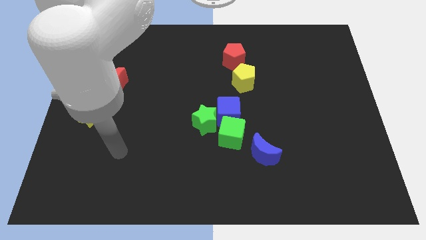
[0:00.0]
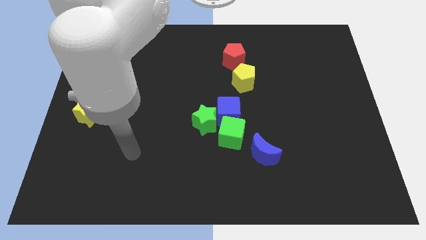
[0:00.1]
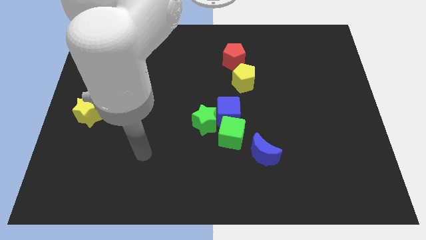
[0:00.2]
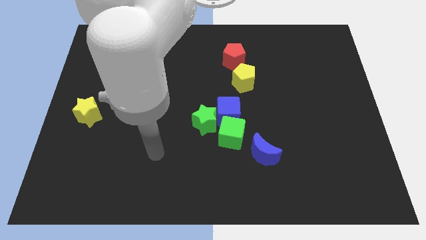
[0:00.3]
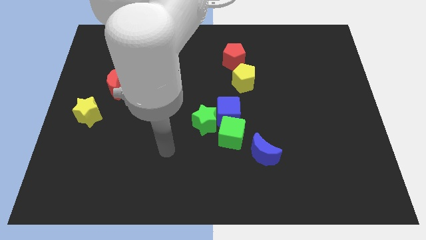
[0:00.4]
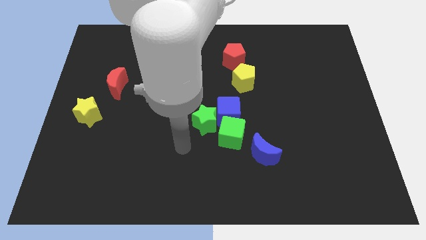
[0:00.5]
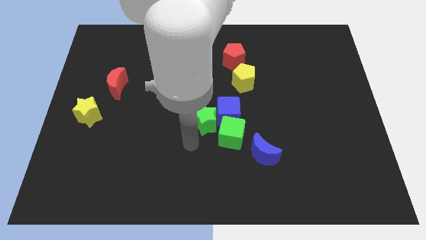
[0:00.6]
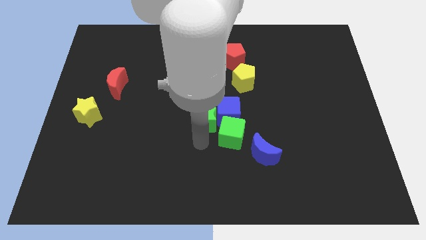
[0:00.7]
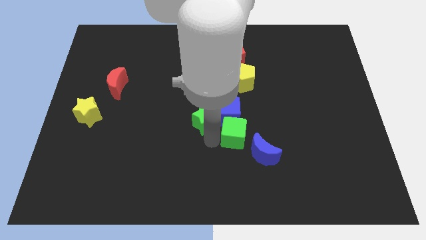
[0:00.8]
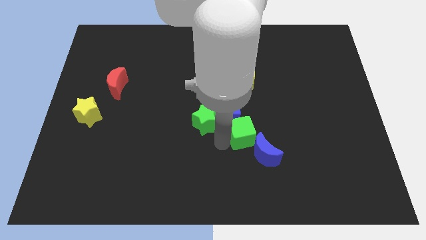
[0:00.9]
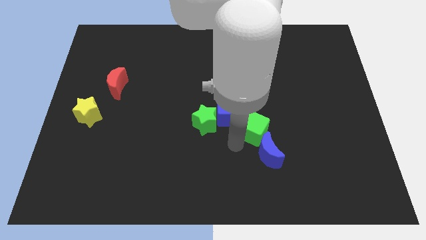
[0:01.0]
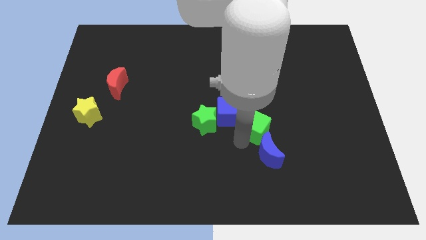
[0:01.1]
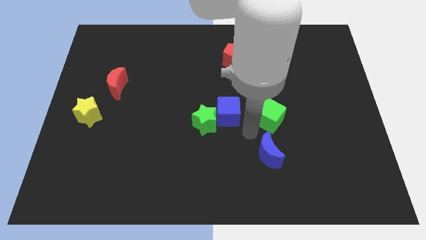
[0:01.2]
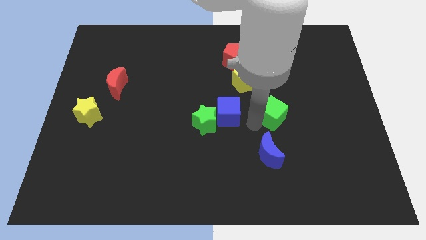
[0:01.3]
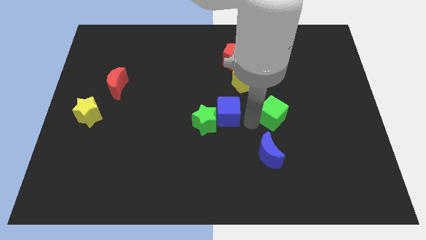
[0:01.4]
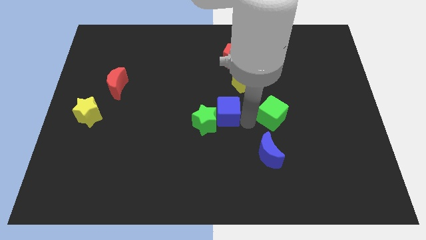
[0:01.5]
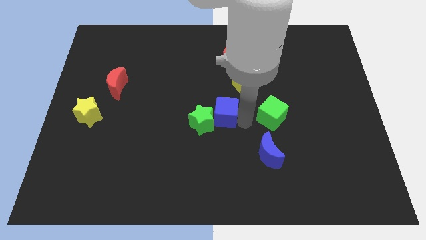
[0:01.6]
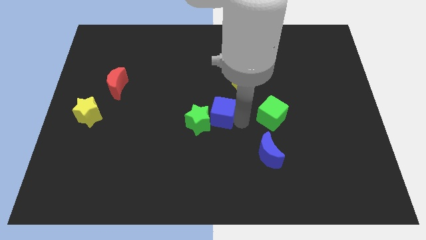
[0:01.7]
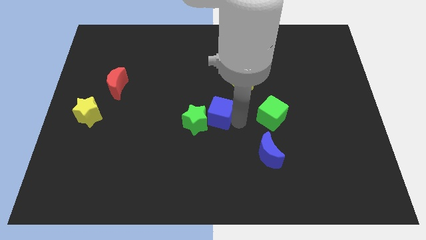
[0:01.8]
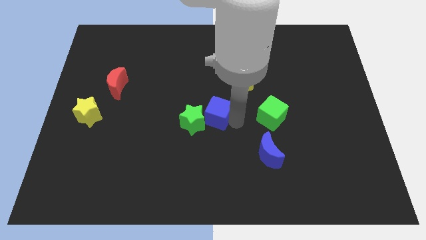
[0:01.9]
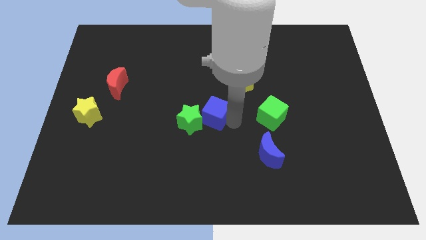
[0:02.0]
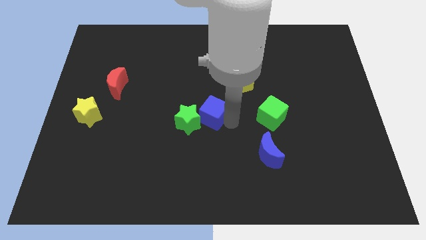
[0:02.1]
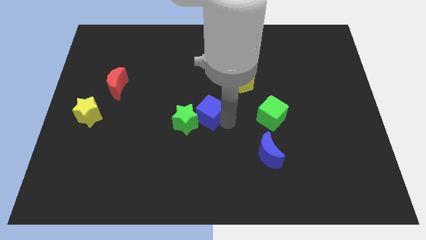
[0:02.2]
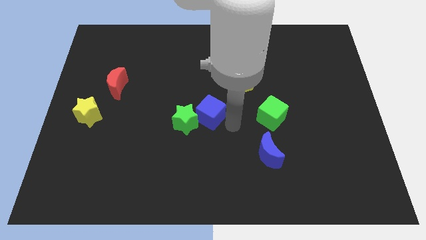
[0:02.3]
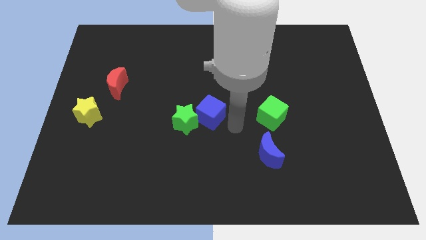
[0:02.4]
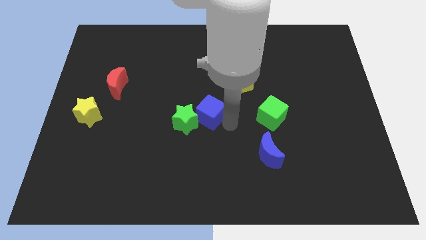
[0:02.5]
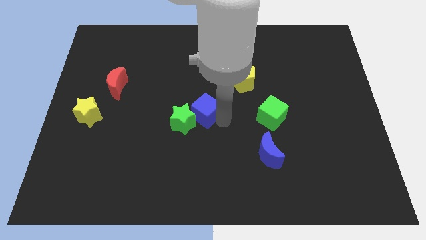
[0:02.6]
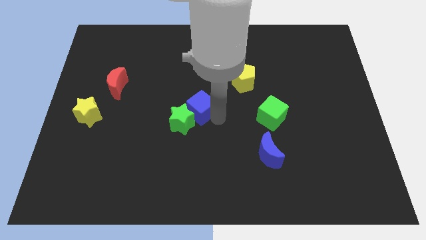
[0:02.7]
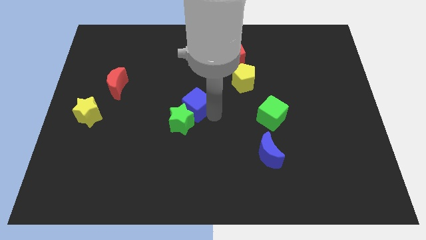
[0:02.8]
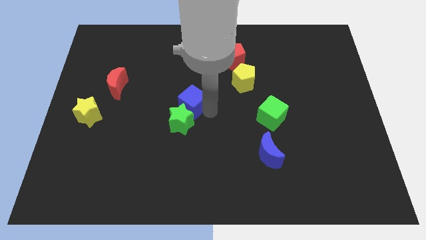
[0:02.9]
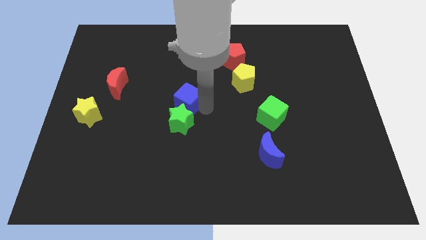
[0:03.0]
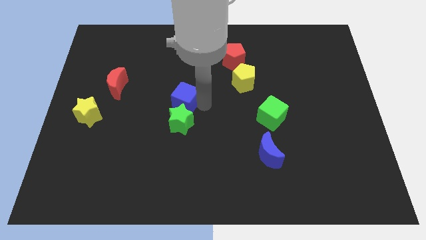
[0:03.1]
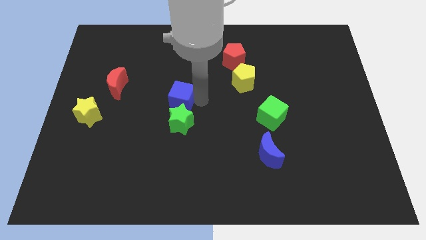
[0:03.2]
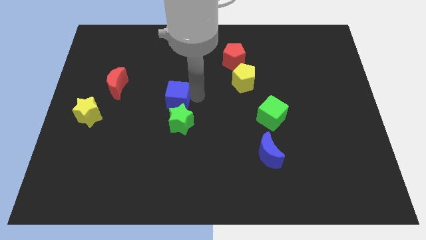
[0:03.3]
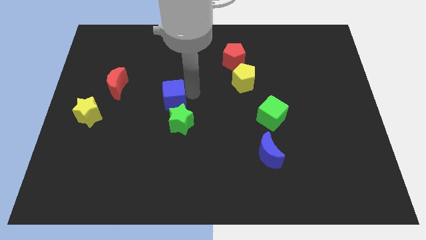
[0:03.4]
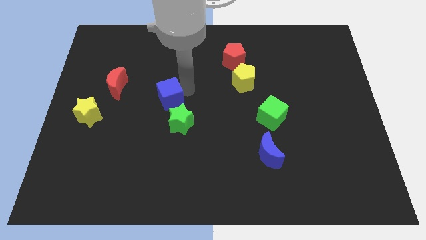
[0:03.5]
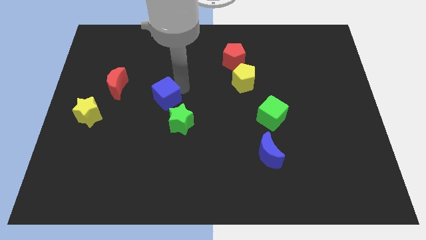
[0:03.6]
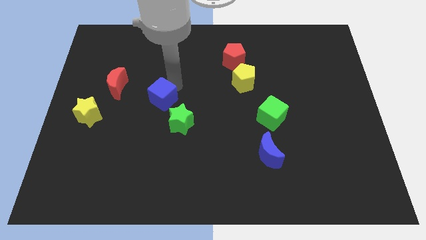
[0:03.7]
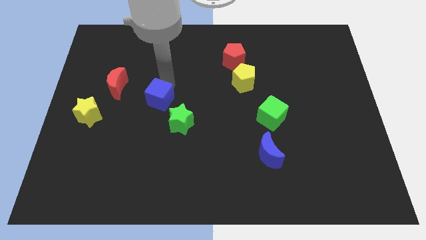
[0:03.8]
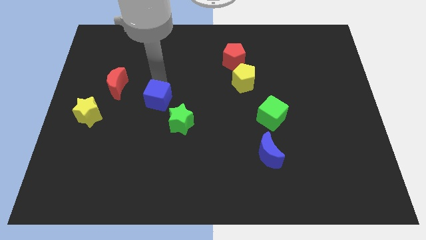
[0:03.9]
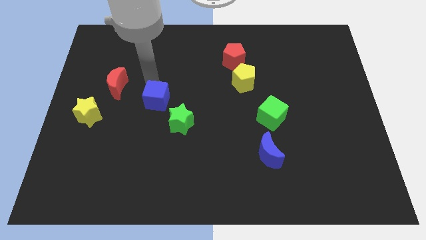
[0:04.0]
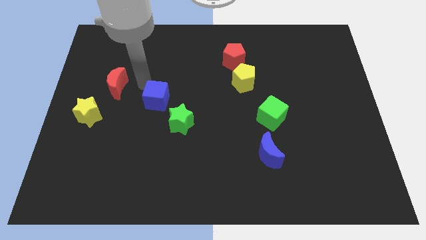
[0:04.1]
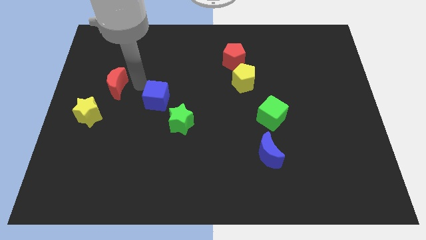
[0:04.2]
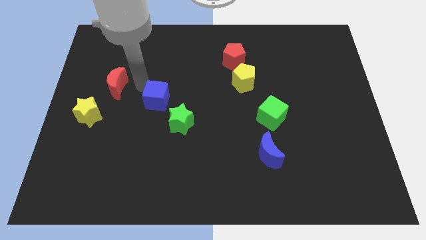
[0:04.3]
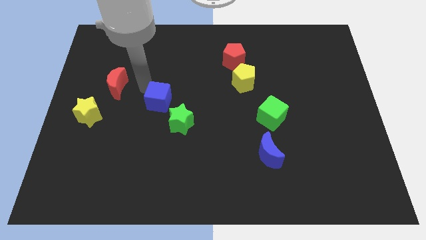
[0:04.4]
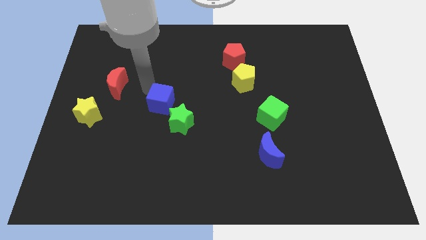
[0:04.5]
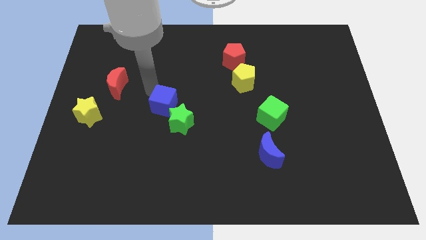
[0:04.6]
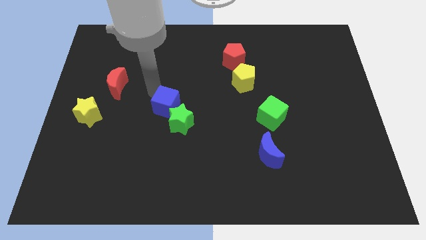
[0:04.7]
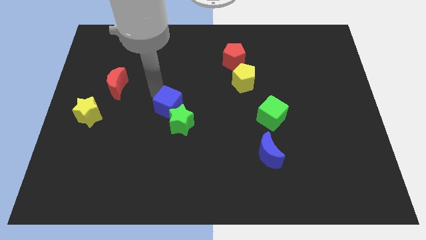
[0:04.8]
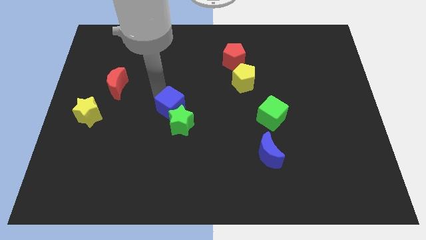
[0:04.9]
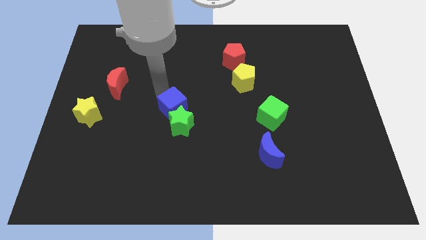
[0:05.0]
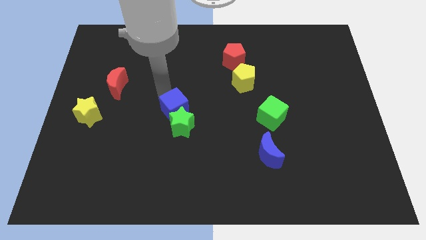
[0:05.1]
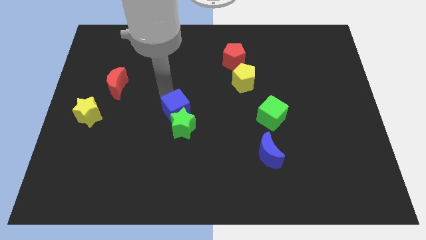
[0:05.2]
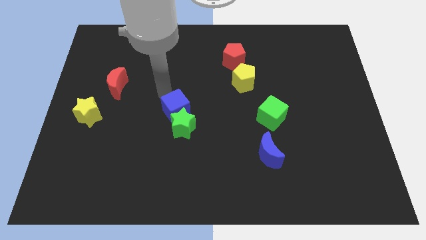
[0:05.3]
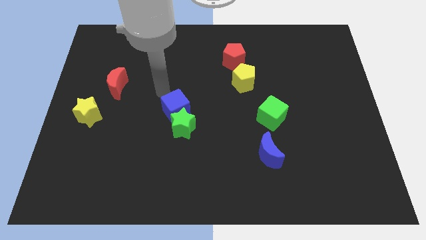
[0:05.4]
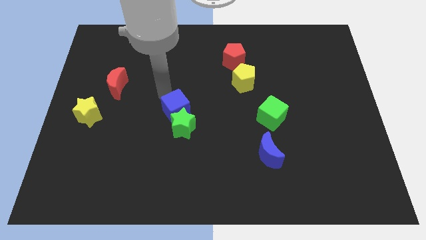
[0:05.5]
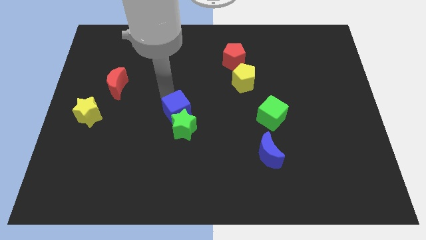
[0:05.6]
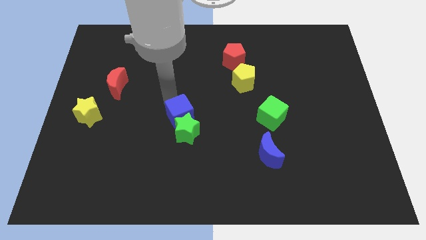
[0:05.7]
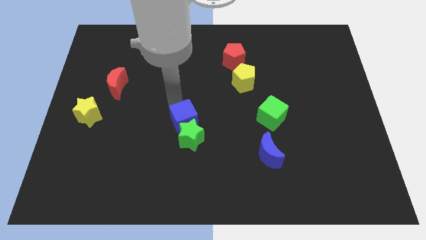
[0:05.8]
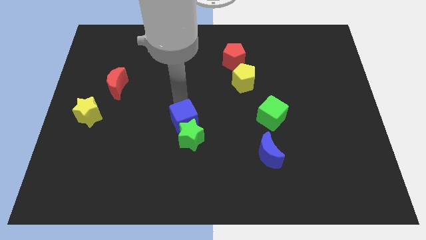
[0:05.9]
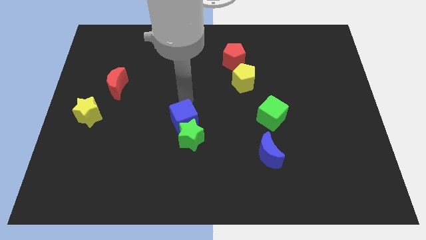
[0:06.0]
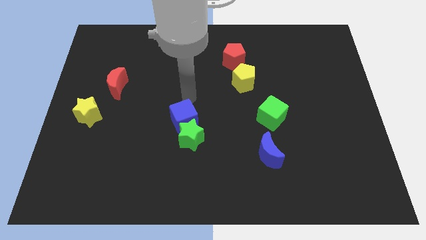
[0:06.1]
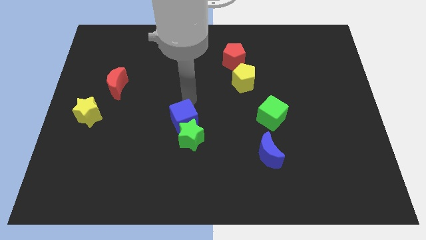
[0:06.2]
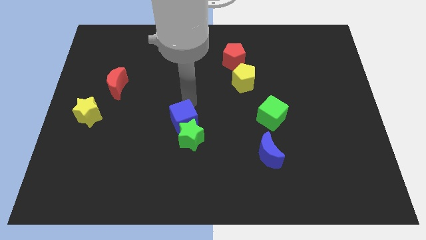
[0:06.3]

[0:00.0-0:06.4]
slide the blue cube downwards and then to the left slightly

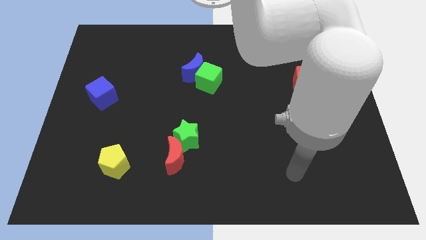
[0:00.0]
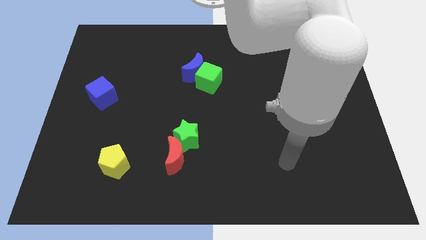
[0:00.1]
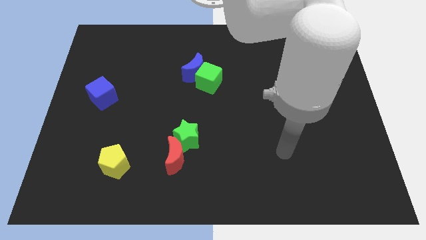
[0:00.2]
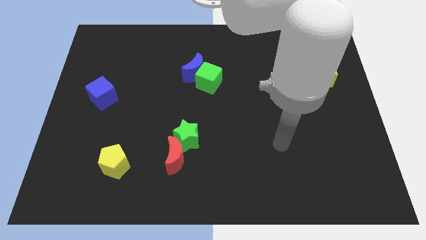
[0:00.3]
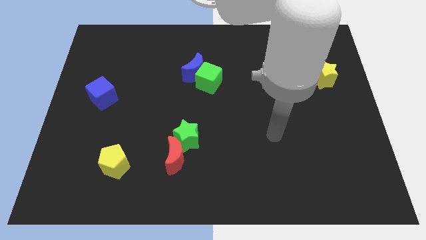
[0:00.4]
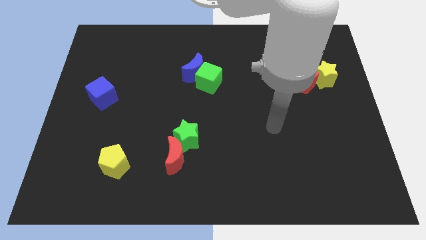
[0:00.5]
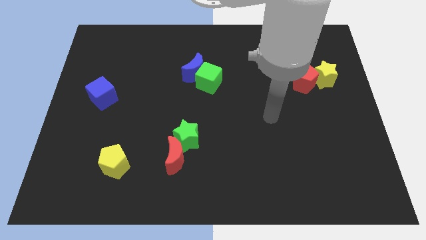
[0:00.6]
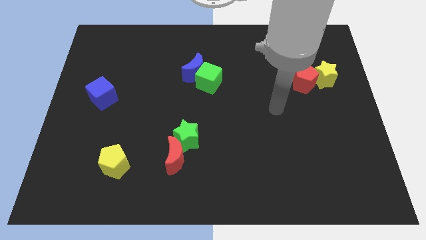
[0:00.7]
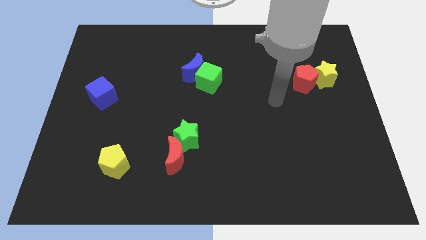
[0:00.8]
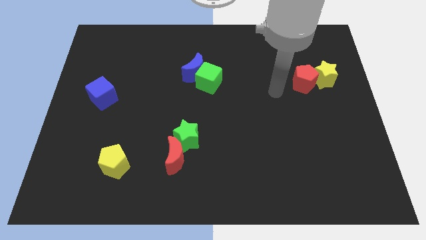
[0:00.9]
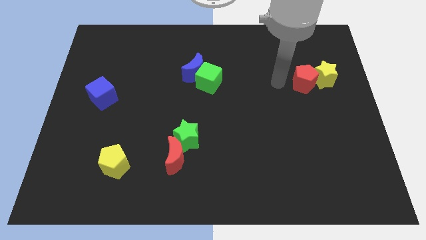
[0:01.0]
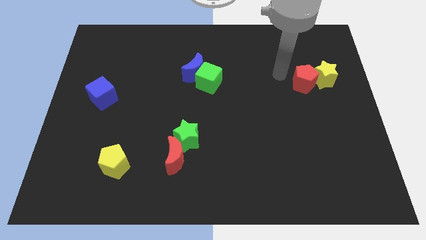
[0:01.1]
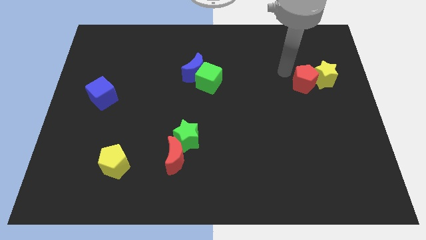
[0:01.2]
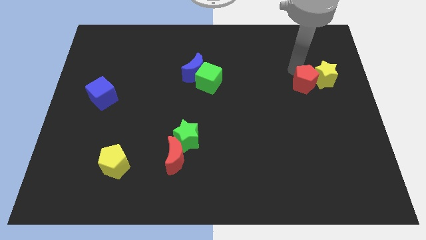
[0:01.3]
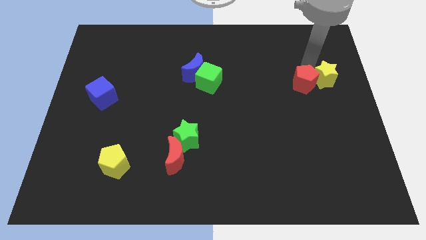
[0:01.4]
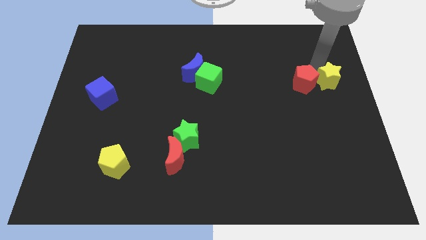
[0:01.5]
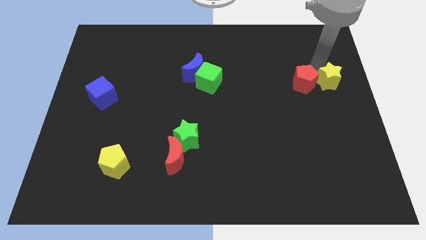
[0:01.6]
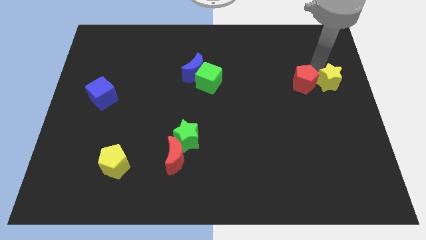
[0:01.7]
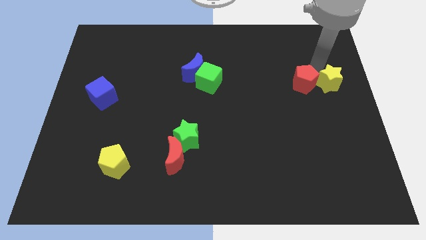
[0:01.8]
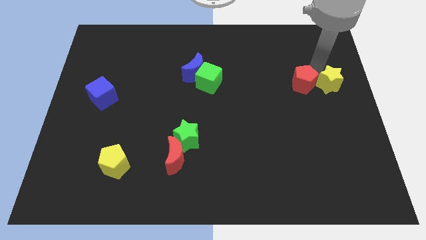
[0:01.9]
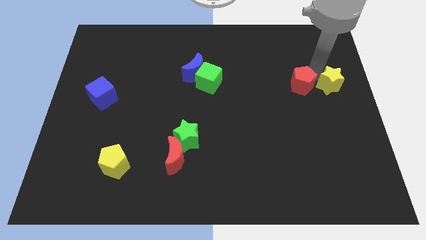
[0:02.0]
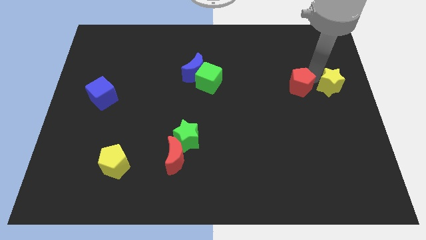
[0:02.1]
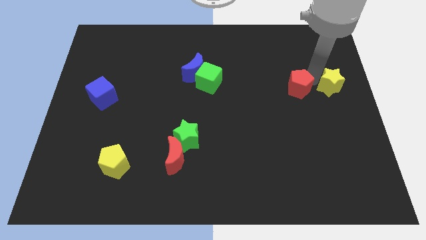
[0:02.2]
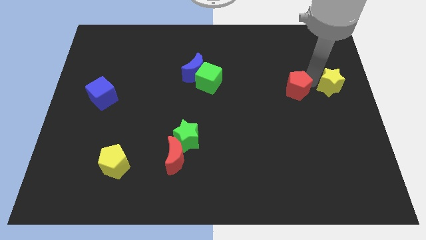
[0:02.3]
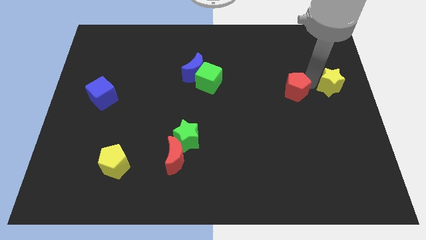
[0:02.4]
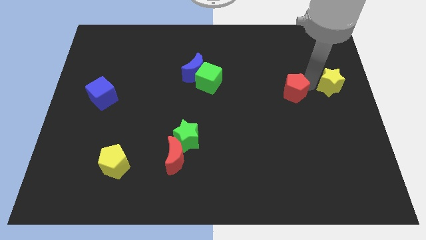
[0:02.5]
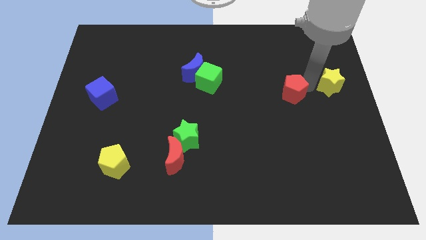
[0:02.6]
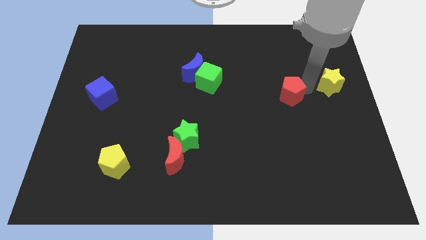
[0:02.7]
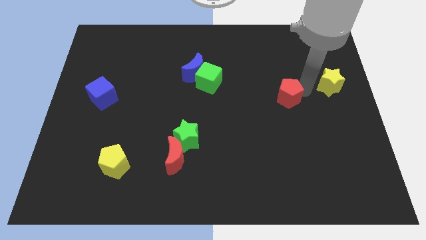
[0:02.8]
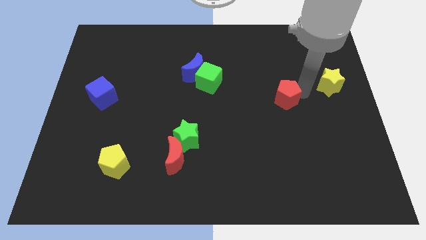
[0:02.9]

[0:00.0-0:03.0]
slightly move the red pentagon down and left
